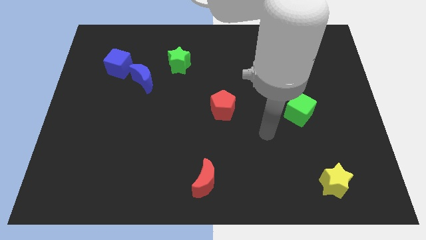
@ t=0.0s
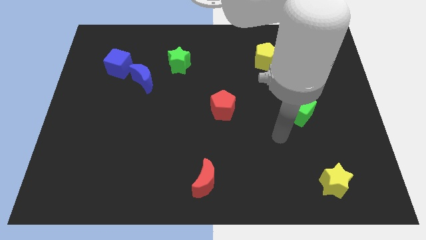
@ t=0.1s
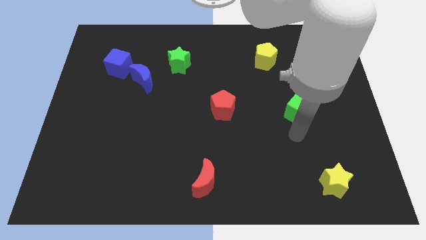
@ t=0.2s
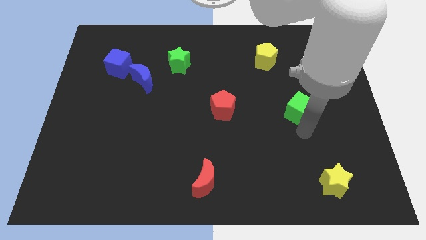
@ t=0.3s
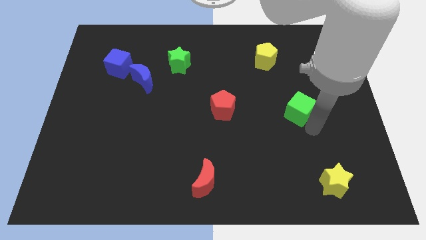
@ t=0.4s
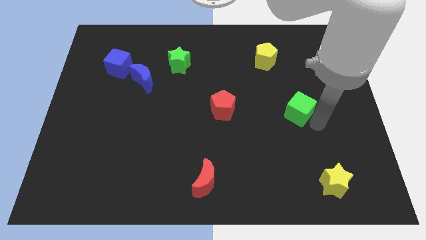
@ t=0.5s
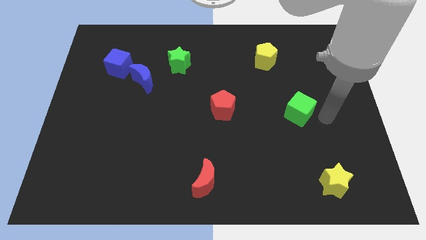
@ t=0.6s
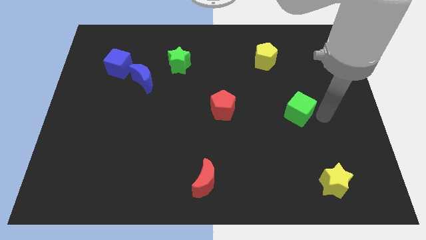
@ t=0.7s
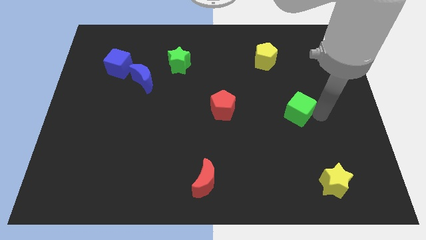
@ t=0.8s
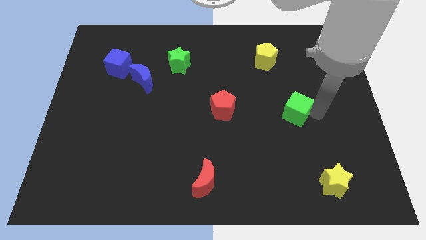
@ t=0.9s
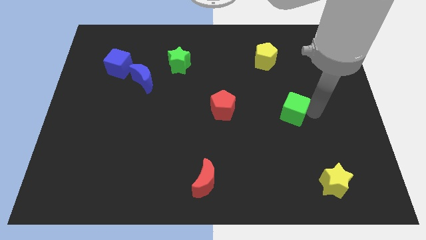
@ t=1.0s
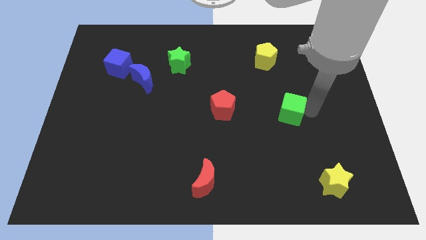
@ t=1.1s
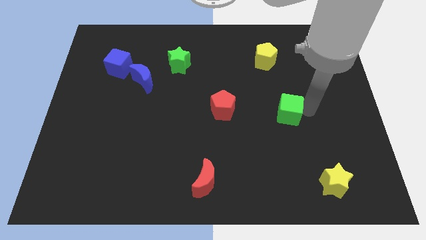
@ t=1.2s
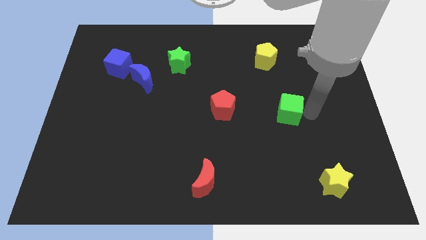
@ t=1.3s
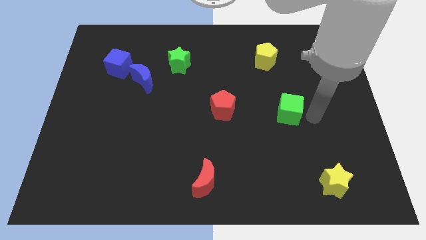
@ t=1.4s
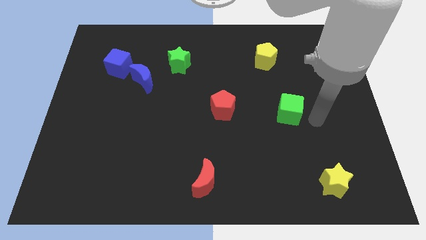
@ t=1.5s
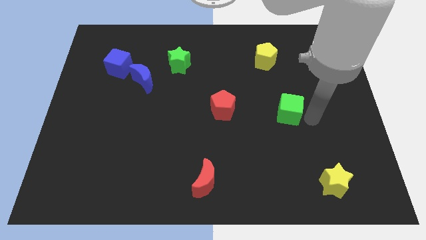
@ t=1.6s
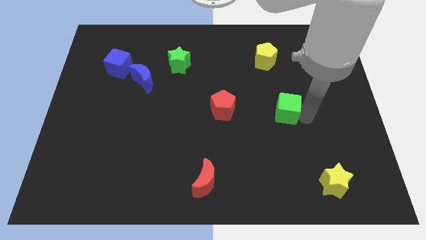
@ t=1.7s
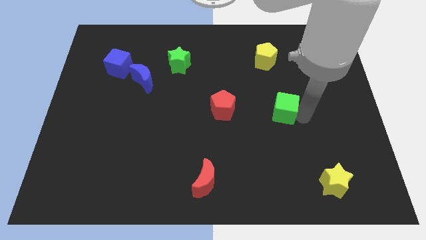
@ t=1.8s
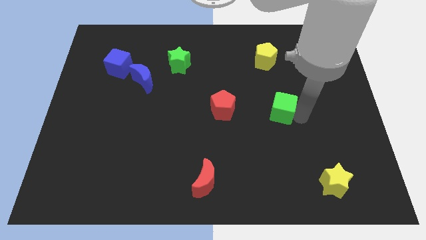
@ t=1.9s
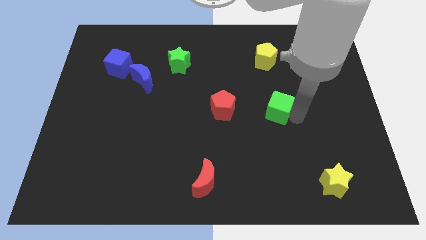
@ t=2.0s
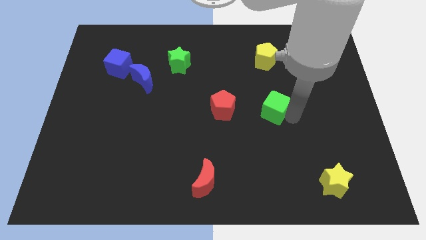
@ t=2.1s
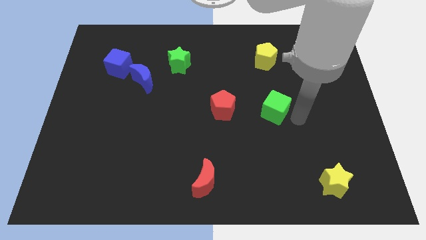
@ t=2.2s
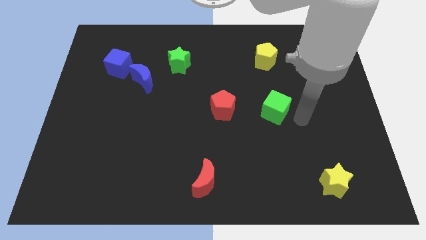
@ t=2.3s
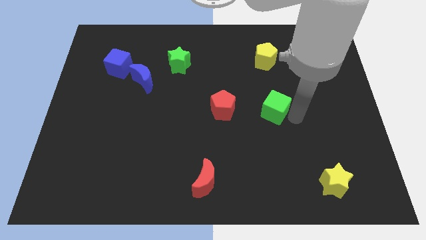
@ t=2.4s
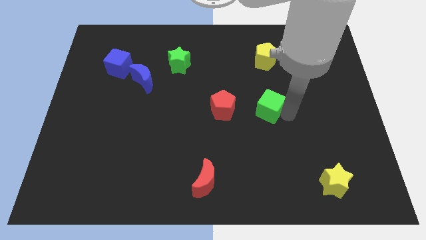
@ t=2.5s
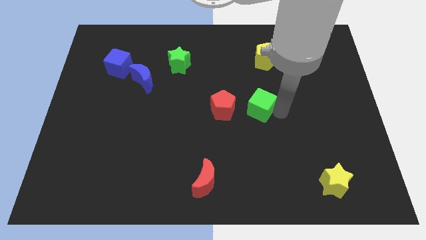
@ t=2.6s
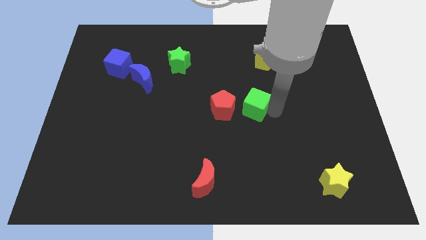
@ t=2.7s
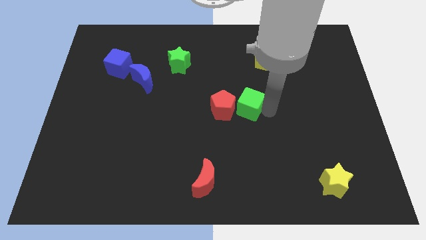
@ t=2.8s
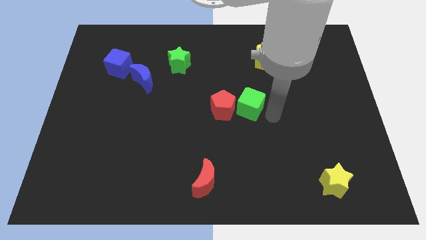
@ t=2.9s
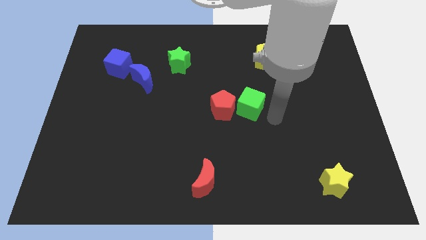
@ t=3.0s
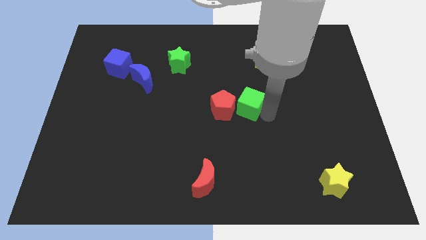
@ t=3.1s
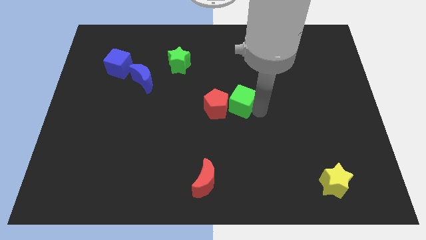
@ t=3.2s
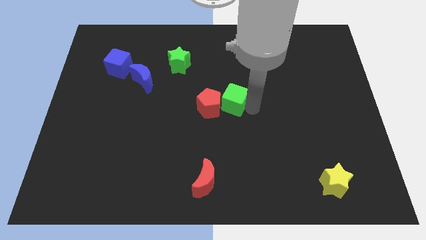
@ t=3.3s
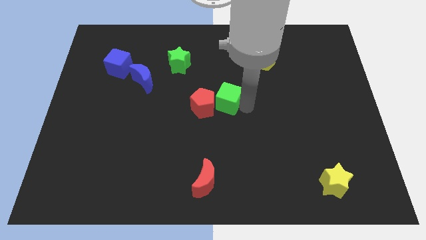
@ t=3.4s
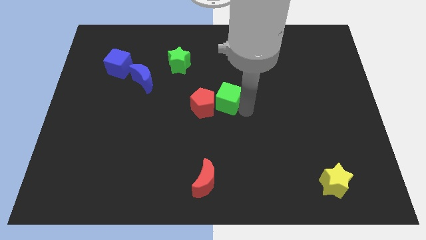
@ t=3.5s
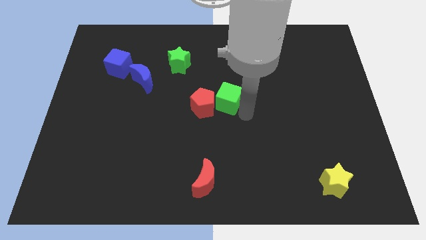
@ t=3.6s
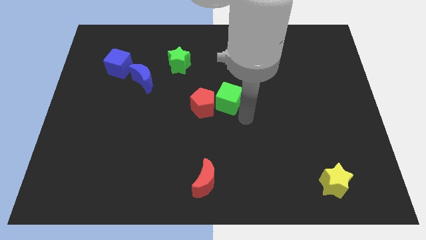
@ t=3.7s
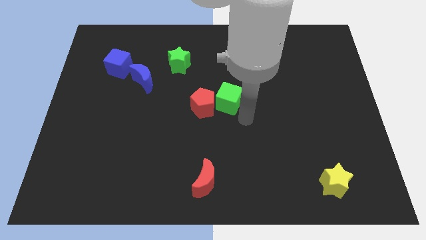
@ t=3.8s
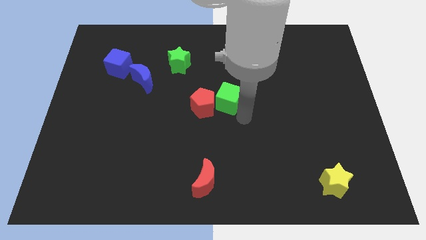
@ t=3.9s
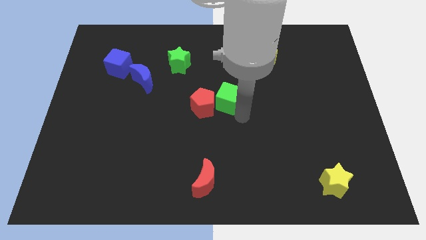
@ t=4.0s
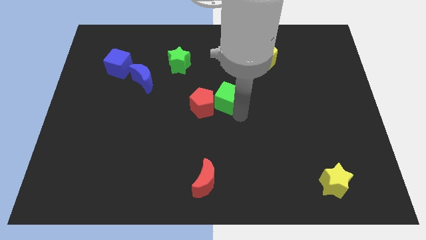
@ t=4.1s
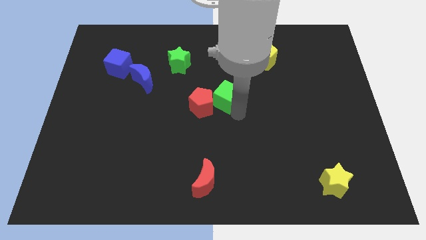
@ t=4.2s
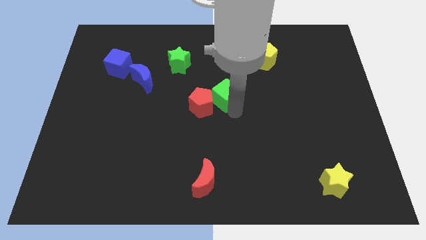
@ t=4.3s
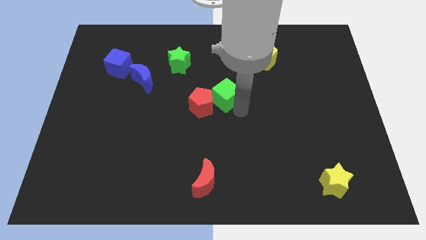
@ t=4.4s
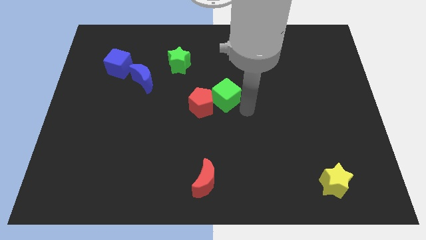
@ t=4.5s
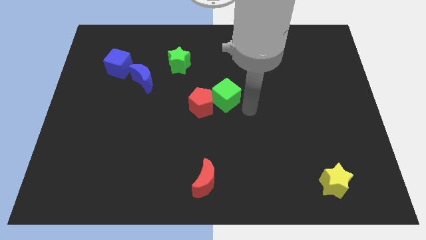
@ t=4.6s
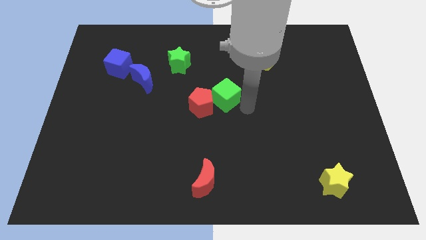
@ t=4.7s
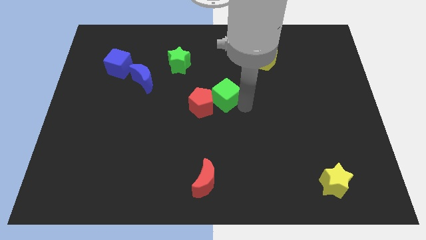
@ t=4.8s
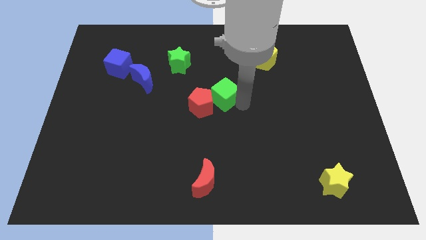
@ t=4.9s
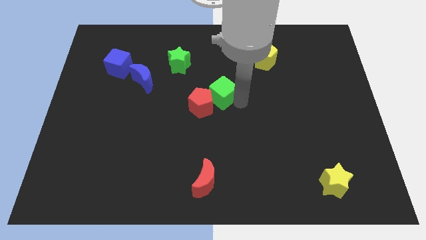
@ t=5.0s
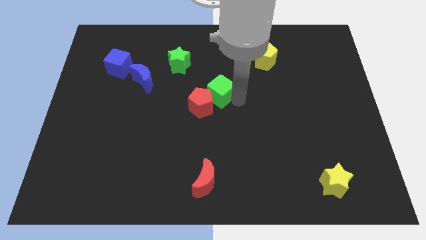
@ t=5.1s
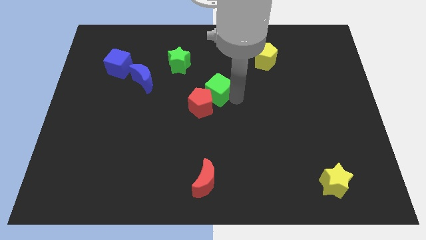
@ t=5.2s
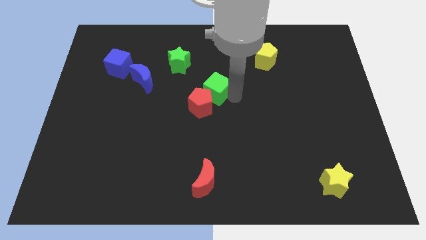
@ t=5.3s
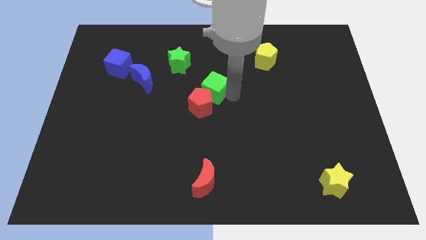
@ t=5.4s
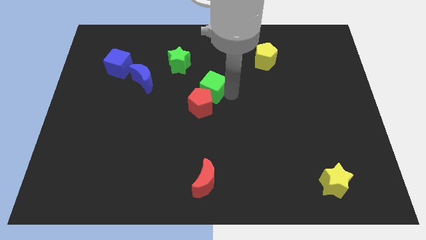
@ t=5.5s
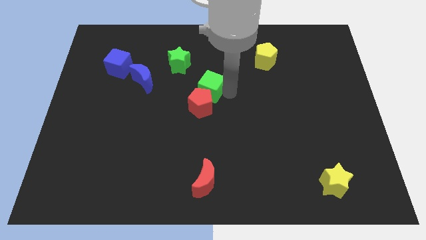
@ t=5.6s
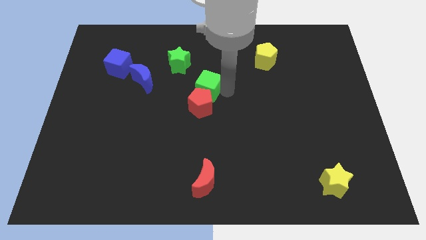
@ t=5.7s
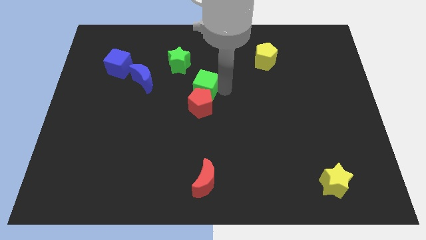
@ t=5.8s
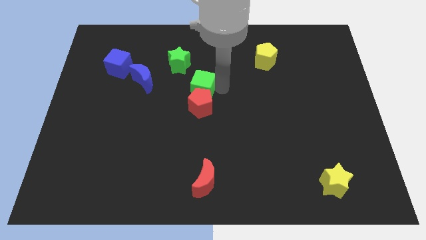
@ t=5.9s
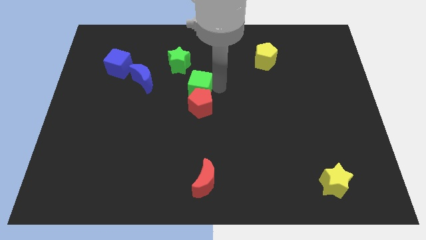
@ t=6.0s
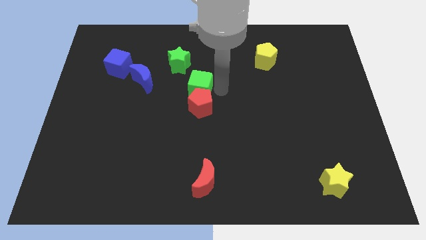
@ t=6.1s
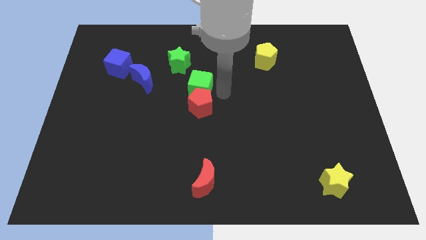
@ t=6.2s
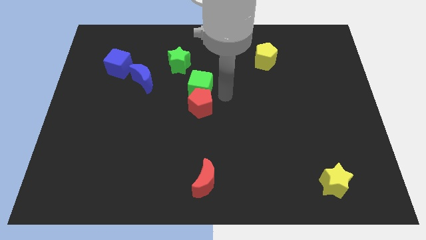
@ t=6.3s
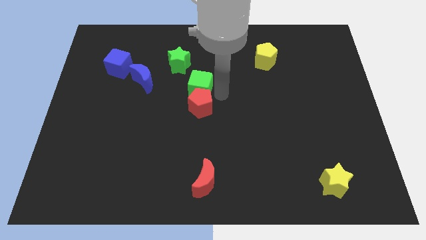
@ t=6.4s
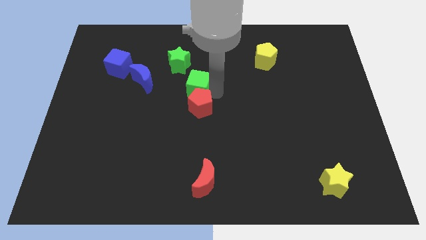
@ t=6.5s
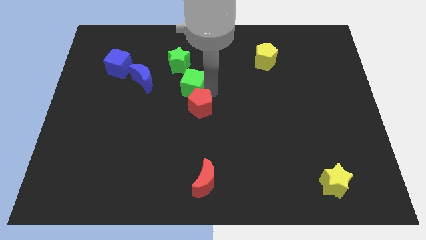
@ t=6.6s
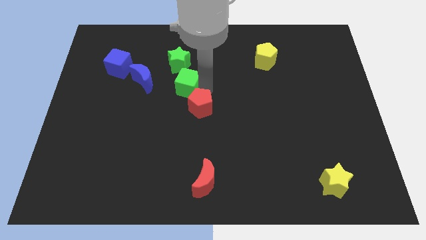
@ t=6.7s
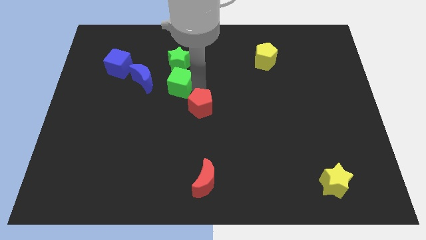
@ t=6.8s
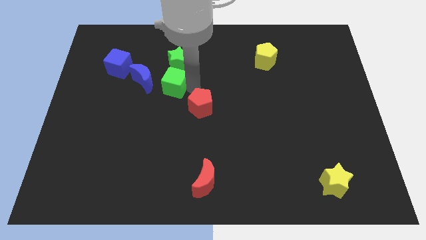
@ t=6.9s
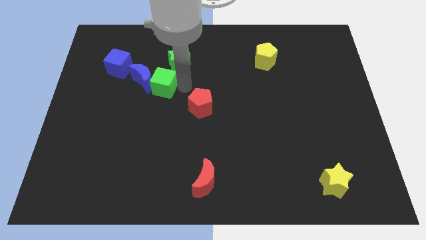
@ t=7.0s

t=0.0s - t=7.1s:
slide the green cube close to the blue moon

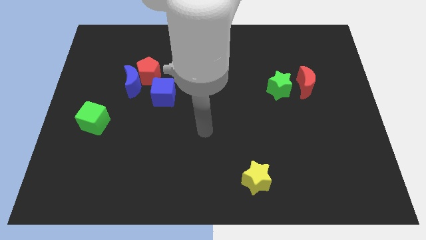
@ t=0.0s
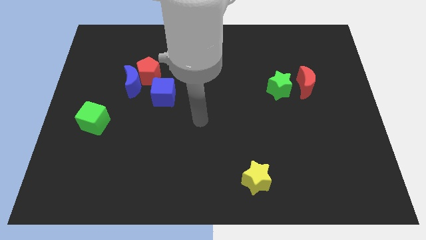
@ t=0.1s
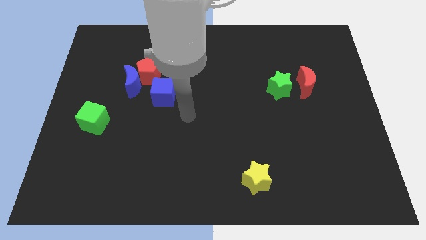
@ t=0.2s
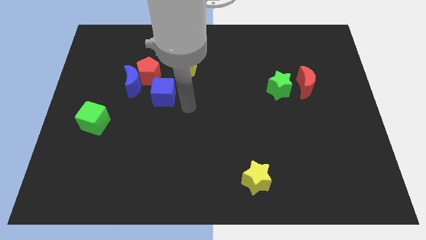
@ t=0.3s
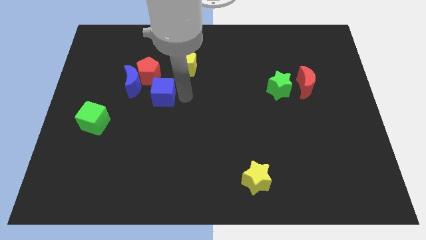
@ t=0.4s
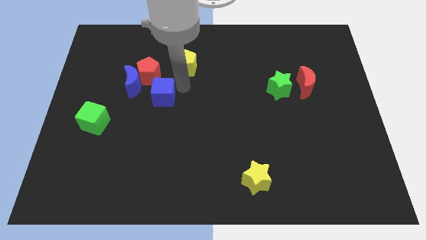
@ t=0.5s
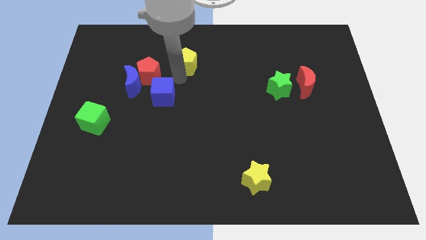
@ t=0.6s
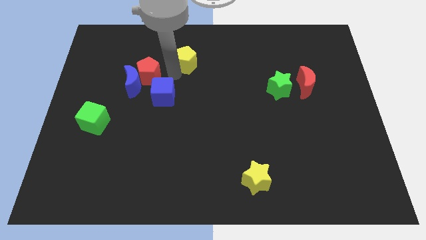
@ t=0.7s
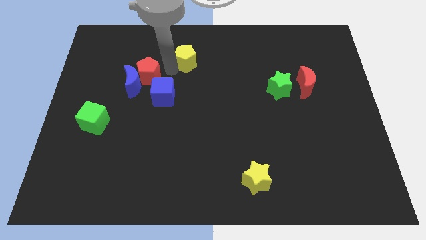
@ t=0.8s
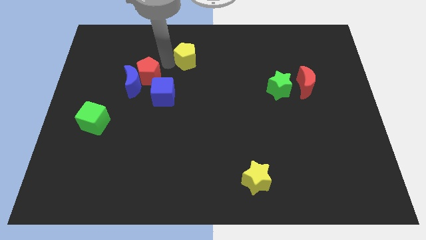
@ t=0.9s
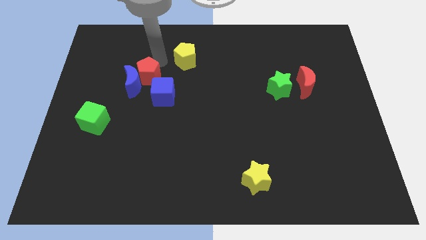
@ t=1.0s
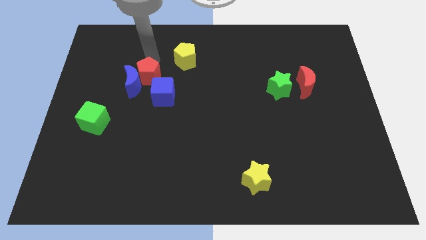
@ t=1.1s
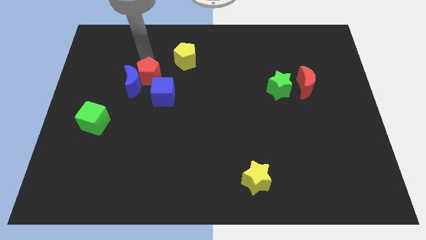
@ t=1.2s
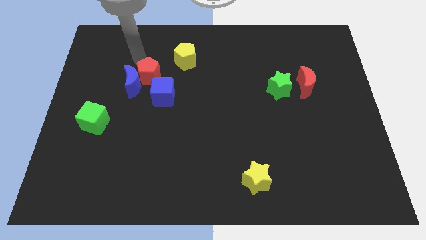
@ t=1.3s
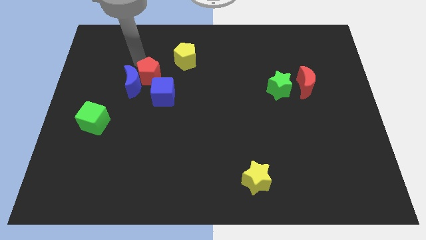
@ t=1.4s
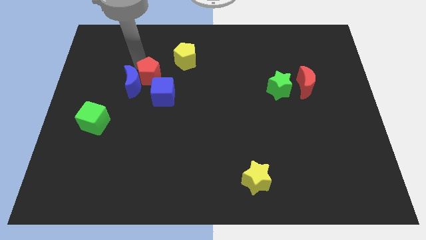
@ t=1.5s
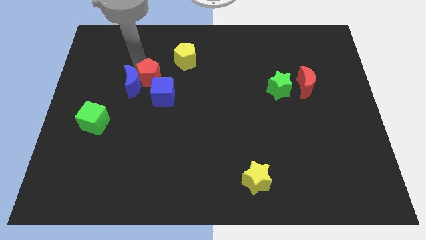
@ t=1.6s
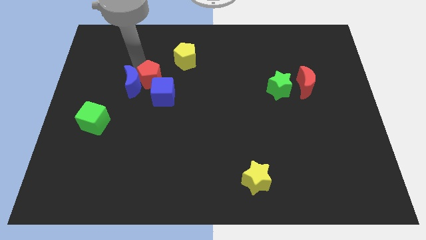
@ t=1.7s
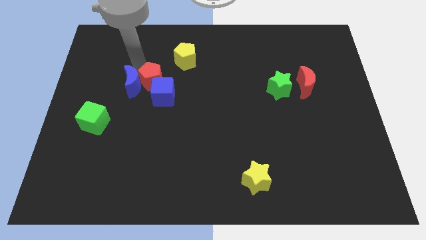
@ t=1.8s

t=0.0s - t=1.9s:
push the red pentagon towards the blue cube
